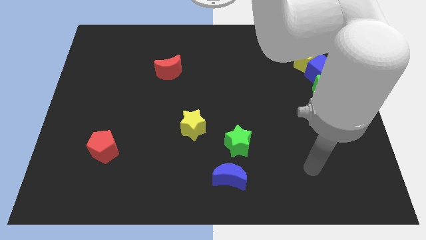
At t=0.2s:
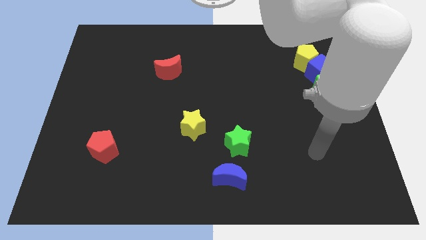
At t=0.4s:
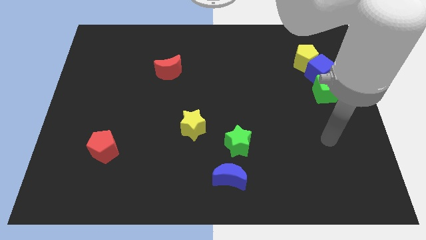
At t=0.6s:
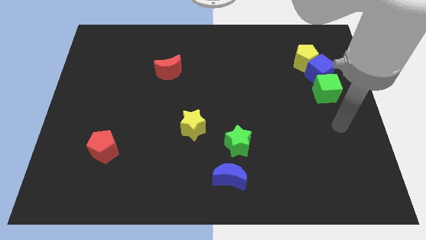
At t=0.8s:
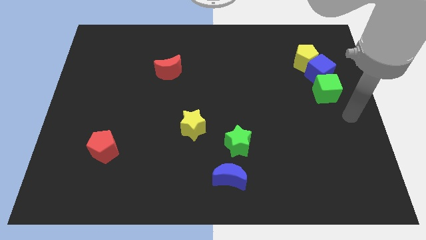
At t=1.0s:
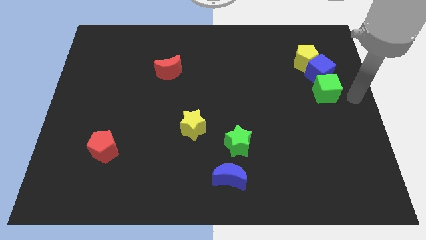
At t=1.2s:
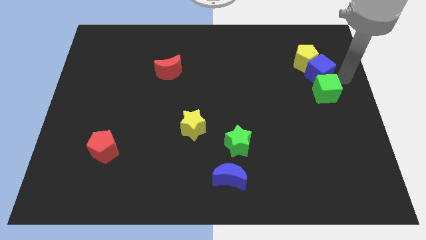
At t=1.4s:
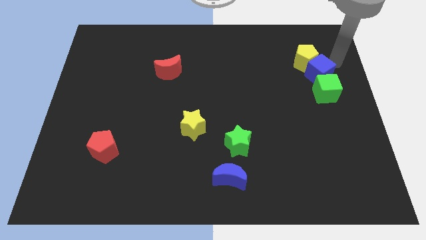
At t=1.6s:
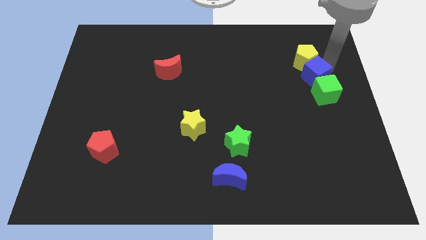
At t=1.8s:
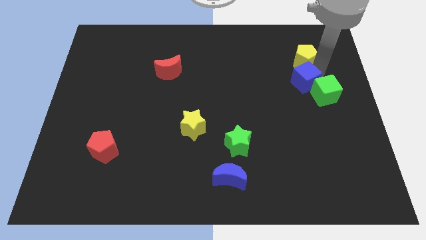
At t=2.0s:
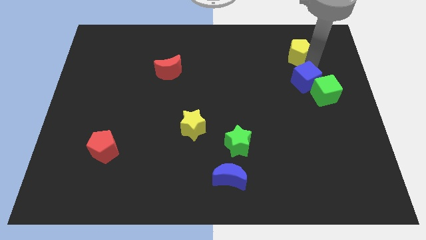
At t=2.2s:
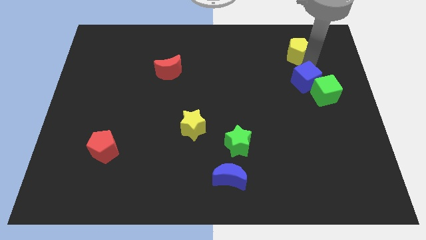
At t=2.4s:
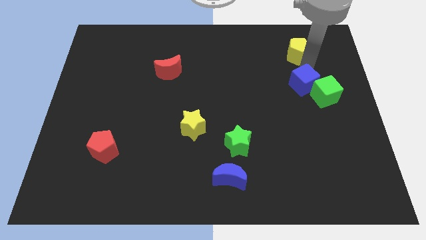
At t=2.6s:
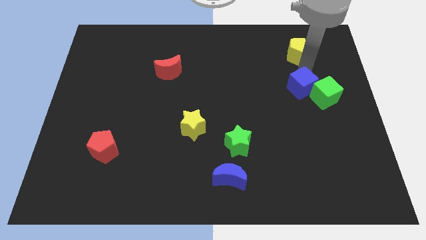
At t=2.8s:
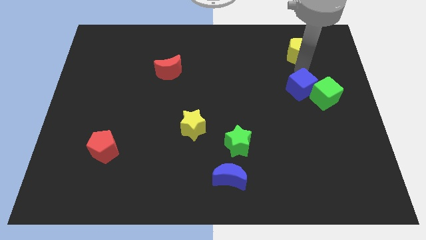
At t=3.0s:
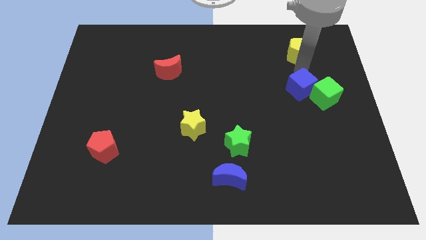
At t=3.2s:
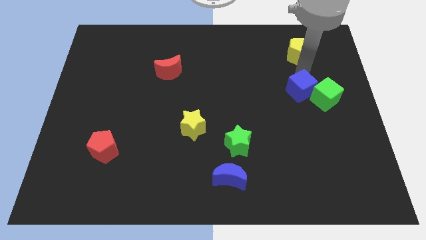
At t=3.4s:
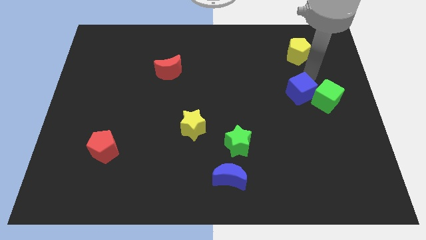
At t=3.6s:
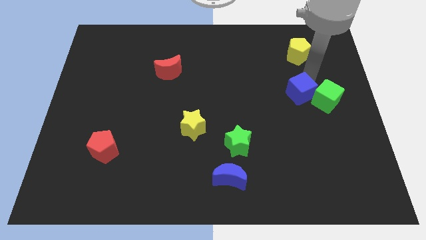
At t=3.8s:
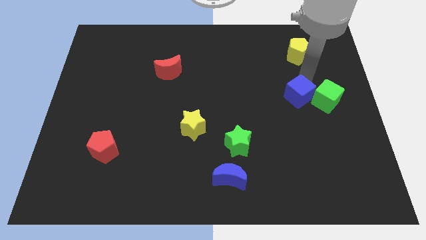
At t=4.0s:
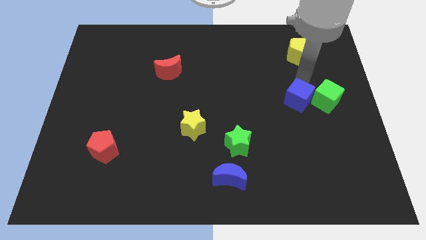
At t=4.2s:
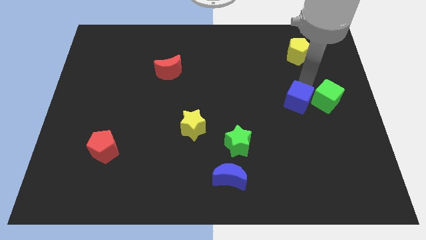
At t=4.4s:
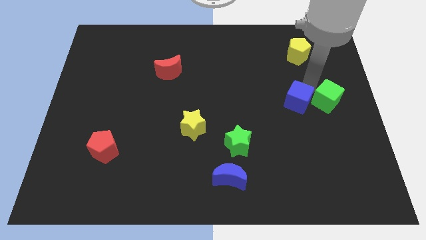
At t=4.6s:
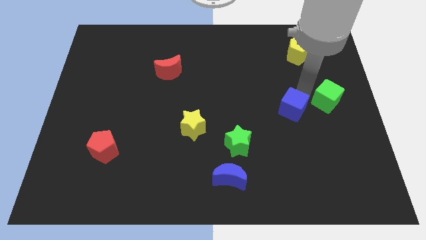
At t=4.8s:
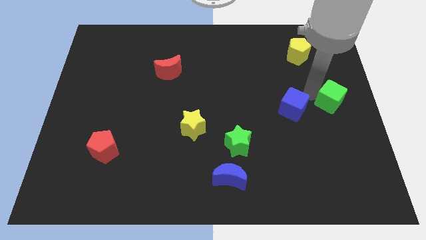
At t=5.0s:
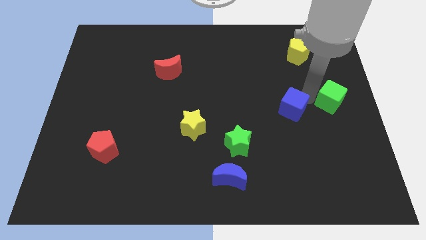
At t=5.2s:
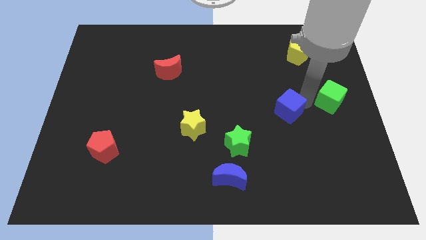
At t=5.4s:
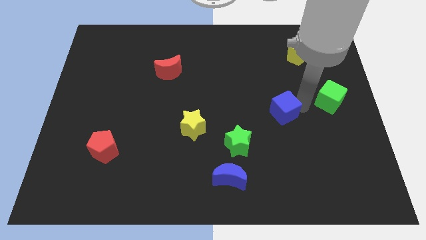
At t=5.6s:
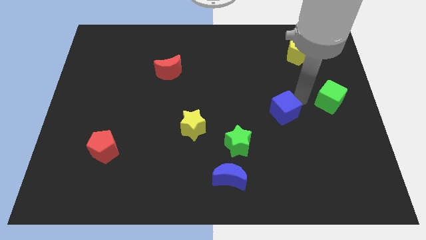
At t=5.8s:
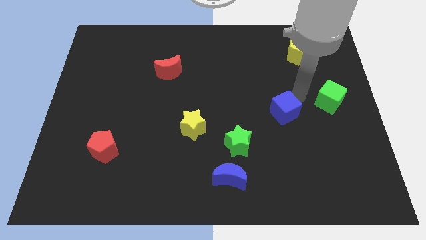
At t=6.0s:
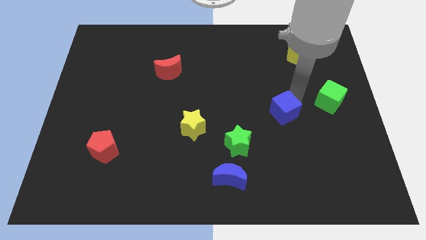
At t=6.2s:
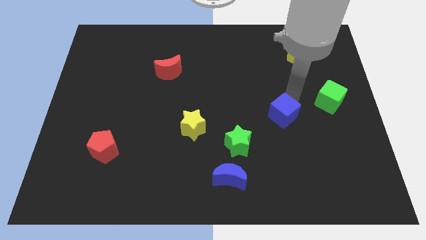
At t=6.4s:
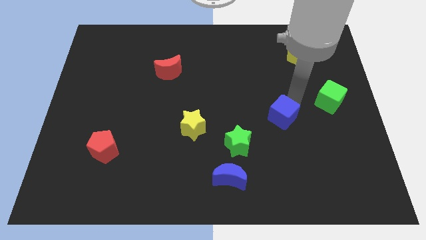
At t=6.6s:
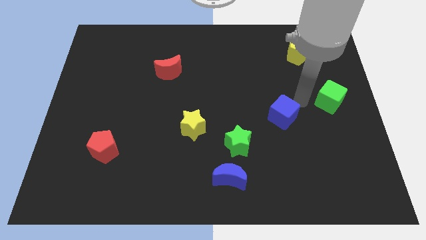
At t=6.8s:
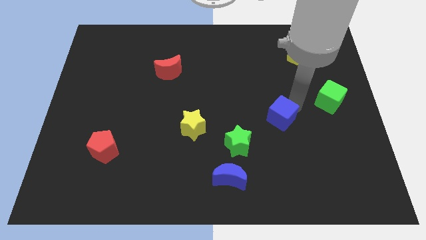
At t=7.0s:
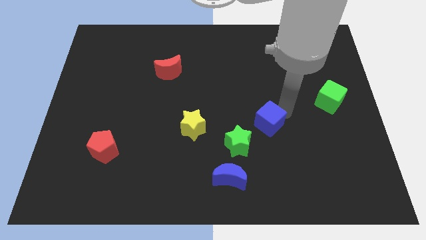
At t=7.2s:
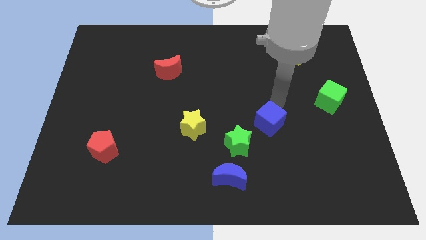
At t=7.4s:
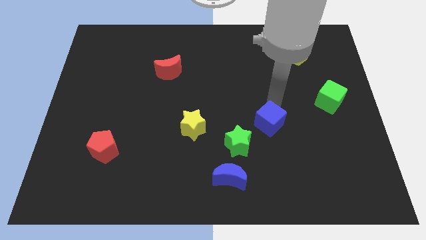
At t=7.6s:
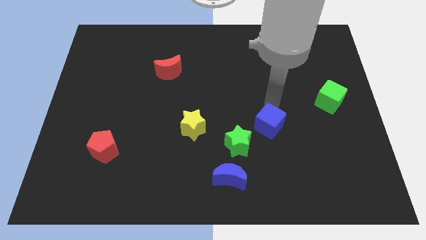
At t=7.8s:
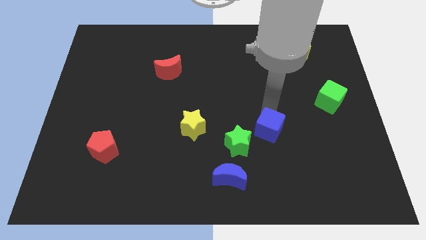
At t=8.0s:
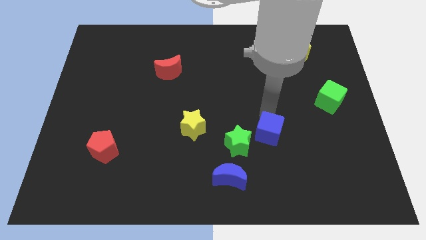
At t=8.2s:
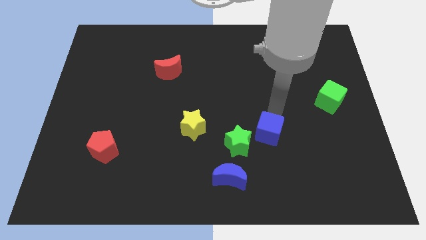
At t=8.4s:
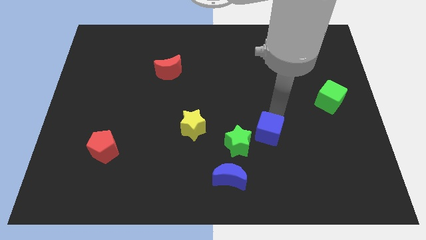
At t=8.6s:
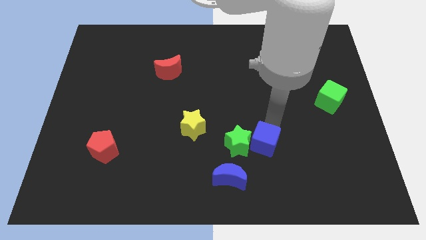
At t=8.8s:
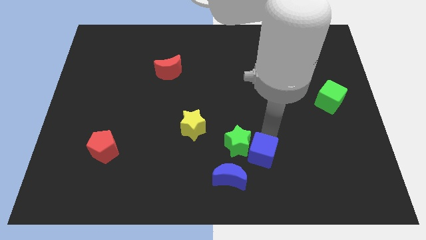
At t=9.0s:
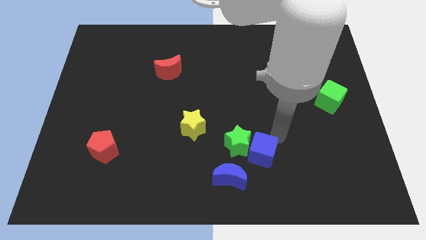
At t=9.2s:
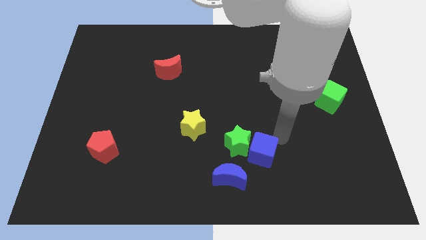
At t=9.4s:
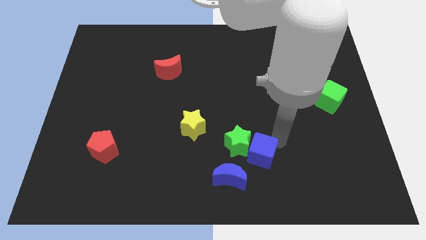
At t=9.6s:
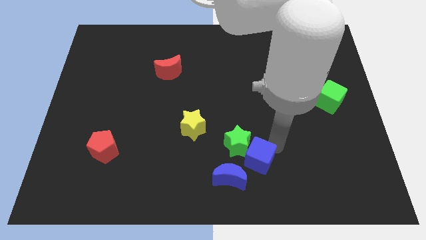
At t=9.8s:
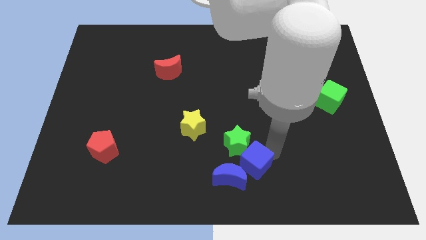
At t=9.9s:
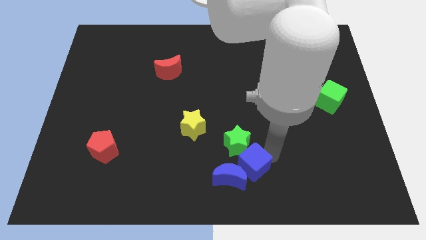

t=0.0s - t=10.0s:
put the blue cube towards the blue moon

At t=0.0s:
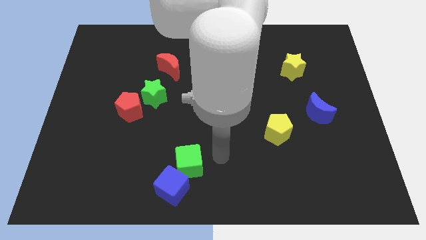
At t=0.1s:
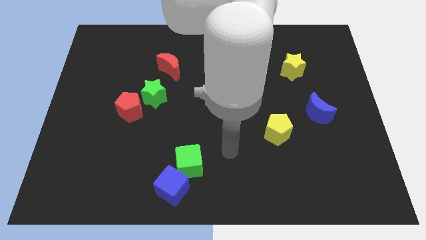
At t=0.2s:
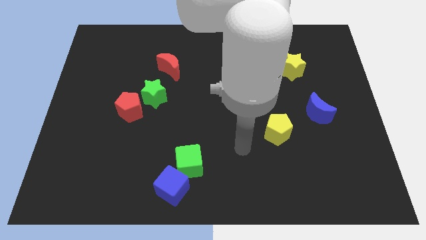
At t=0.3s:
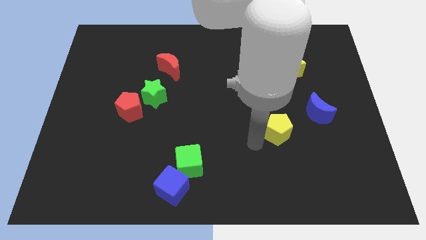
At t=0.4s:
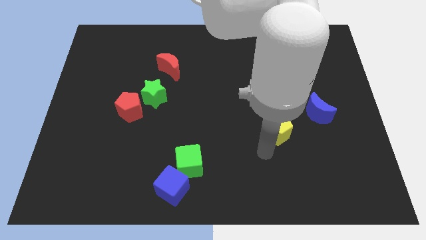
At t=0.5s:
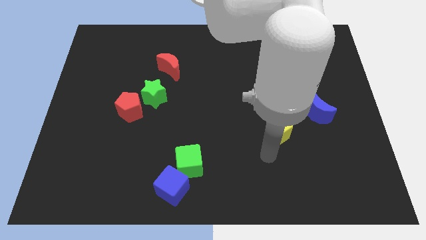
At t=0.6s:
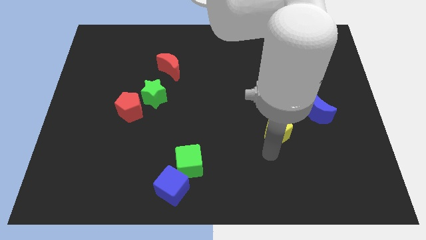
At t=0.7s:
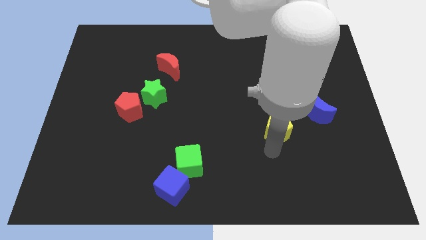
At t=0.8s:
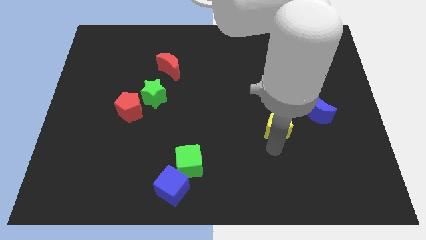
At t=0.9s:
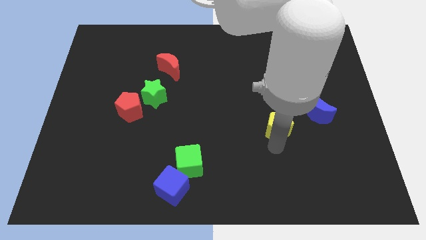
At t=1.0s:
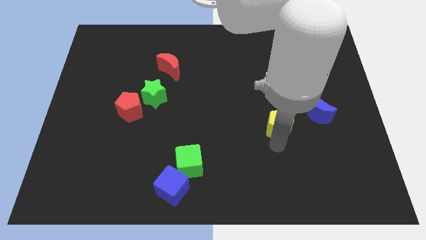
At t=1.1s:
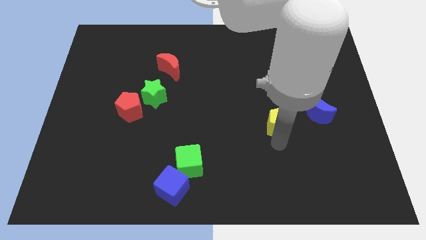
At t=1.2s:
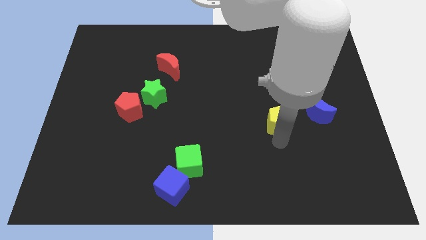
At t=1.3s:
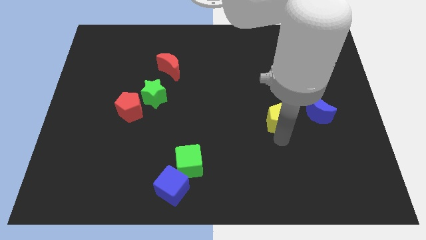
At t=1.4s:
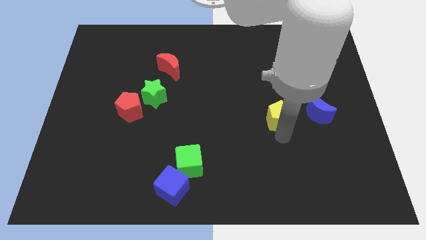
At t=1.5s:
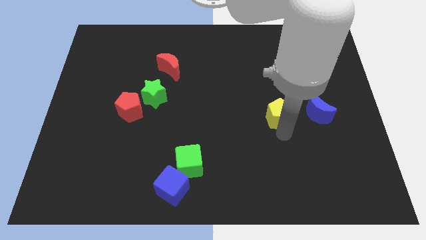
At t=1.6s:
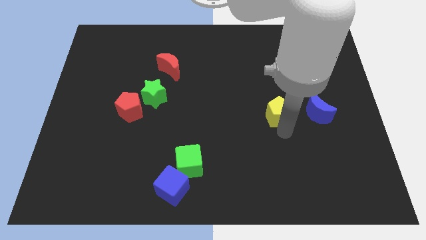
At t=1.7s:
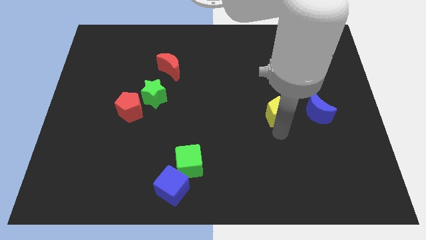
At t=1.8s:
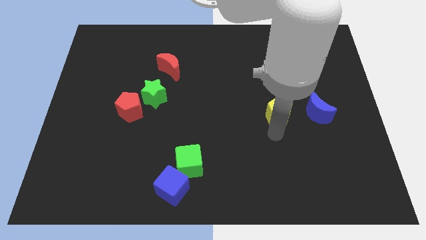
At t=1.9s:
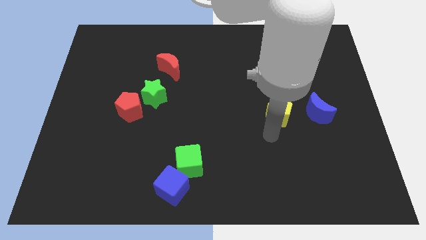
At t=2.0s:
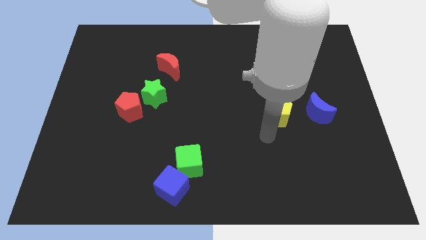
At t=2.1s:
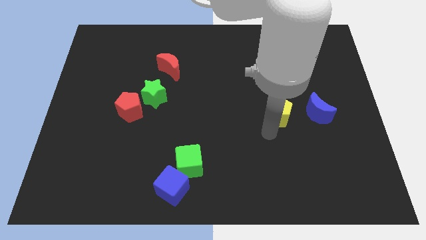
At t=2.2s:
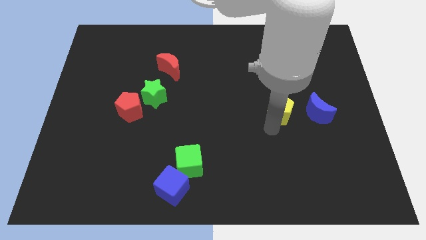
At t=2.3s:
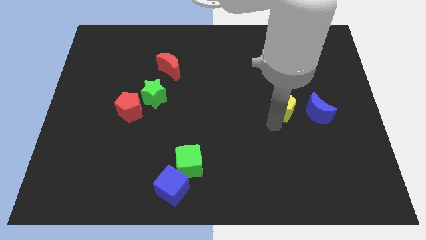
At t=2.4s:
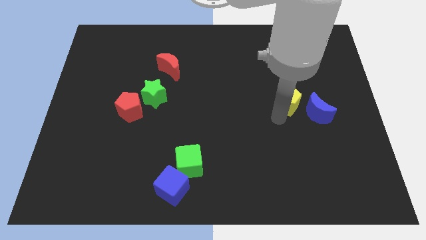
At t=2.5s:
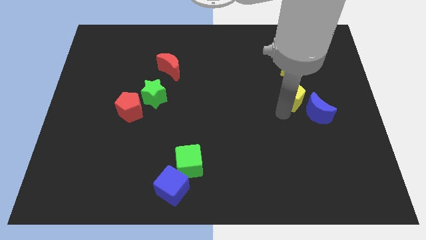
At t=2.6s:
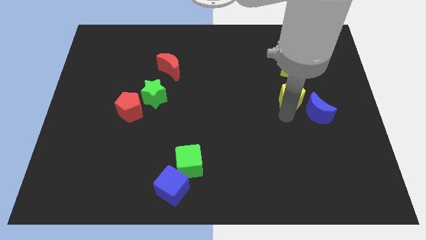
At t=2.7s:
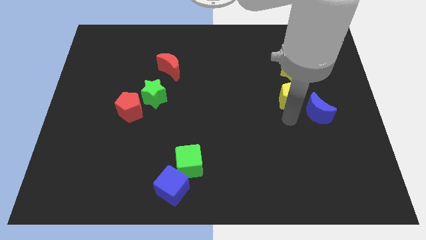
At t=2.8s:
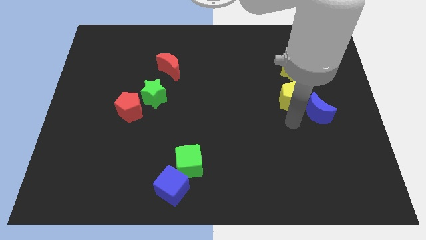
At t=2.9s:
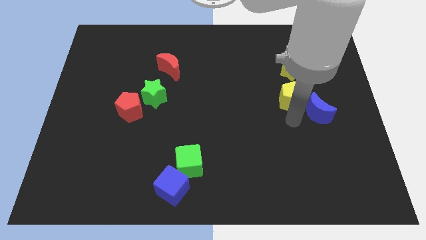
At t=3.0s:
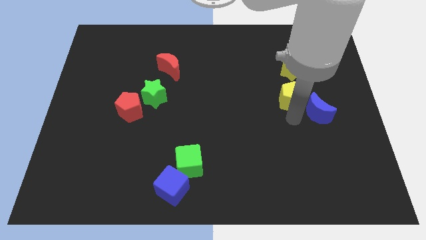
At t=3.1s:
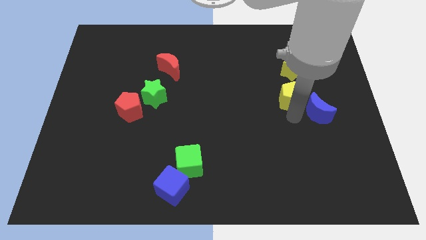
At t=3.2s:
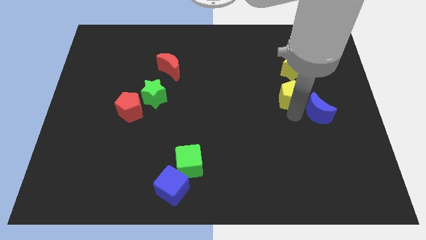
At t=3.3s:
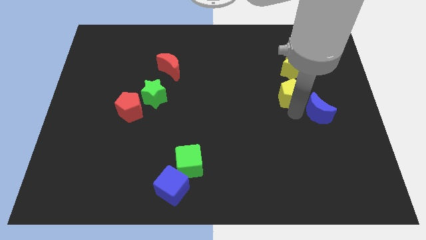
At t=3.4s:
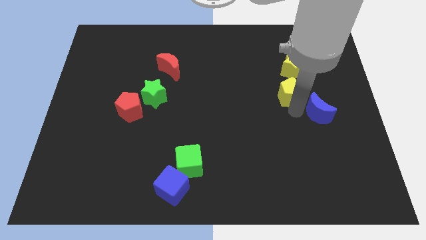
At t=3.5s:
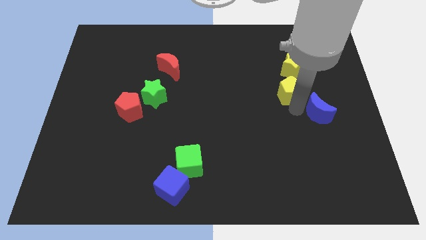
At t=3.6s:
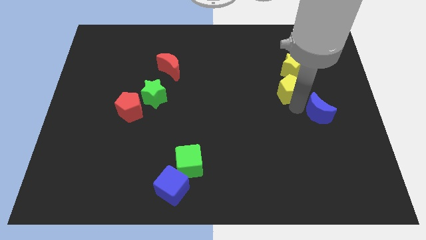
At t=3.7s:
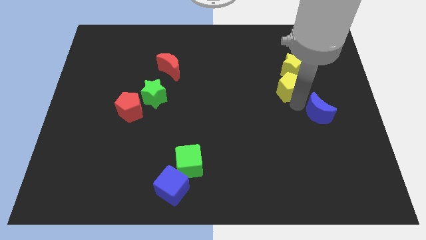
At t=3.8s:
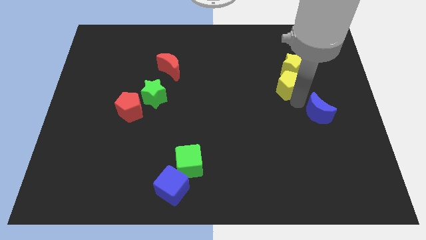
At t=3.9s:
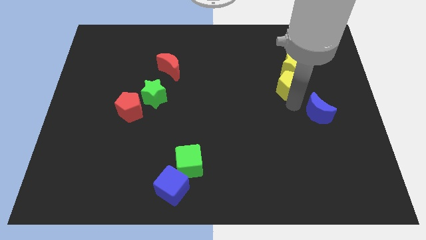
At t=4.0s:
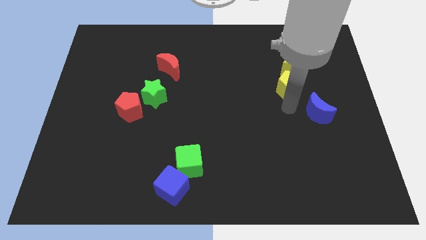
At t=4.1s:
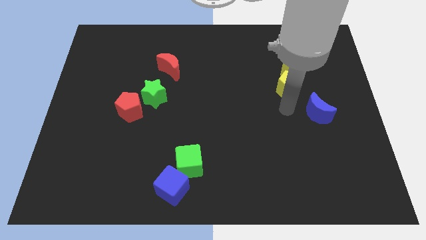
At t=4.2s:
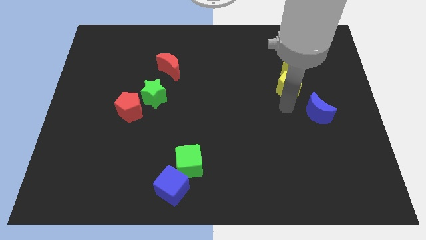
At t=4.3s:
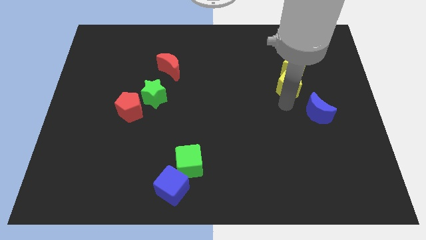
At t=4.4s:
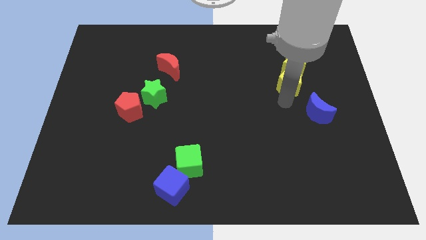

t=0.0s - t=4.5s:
put the yellow pentagon next to the yellow star
